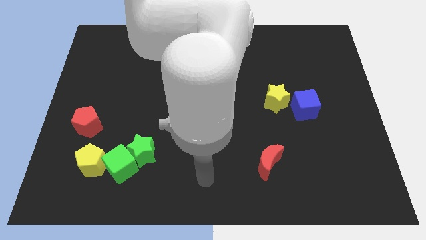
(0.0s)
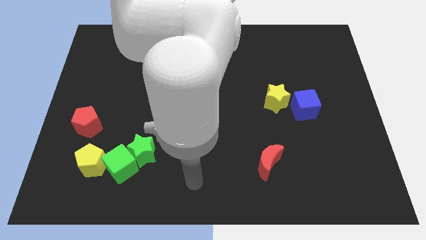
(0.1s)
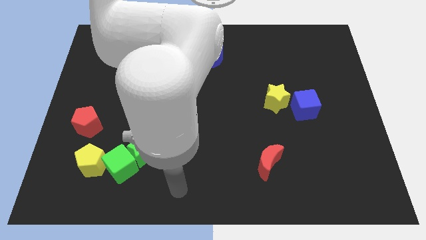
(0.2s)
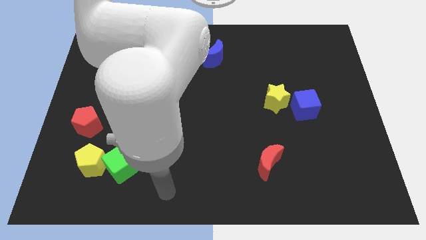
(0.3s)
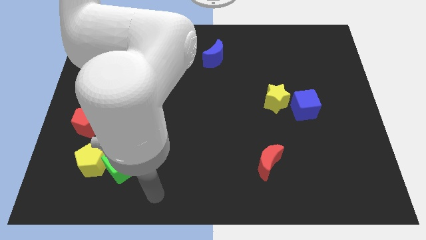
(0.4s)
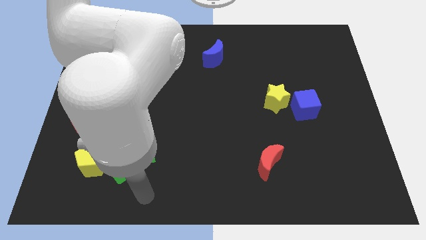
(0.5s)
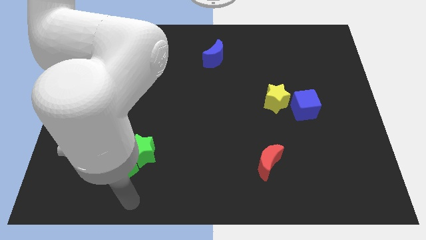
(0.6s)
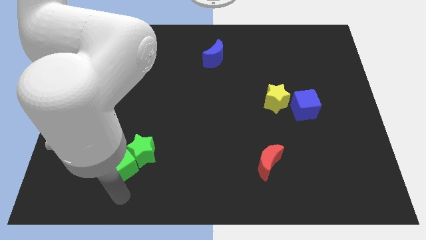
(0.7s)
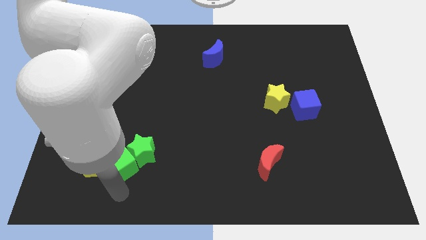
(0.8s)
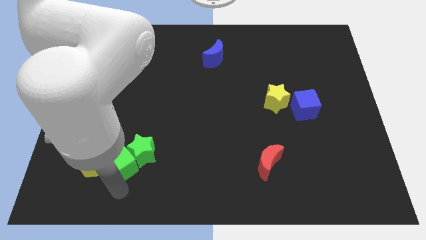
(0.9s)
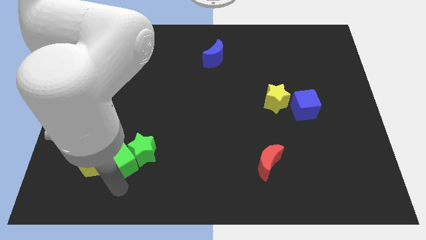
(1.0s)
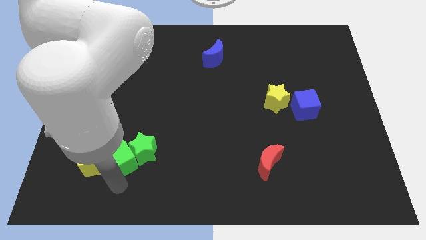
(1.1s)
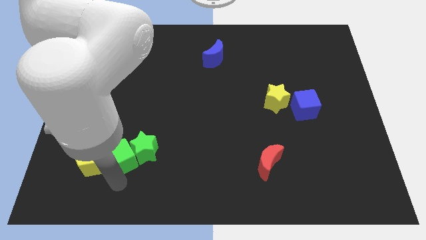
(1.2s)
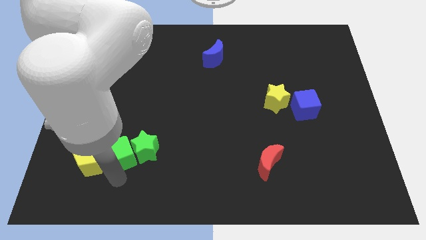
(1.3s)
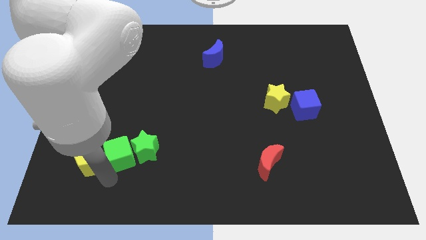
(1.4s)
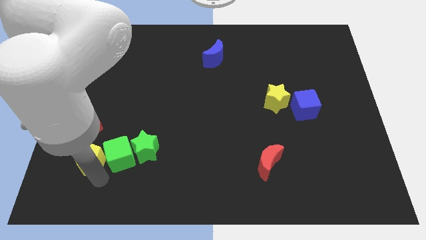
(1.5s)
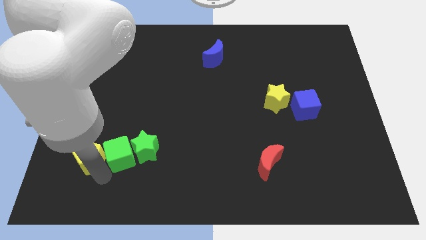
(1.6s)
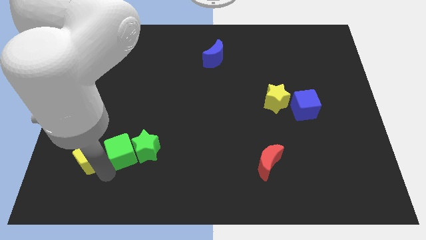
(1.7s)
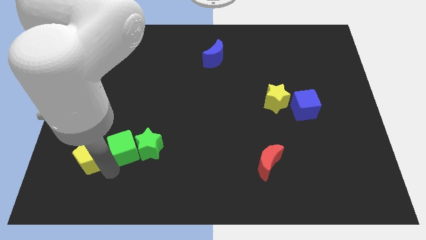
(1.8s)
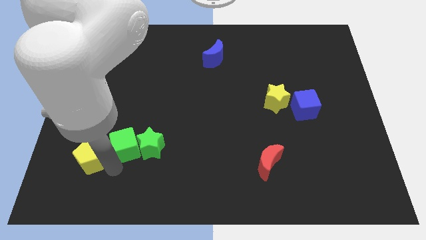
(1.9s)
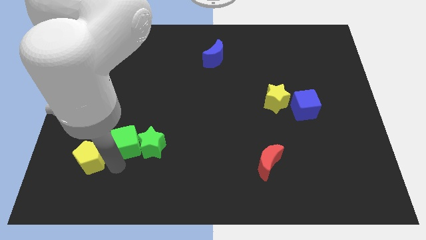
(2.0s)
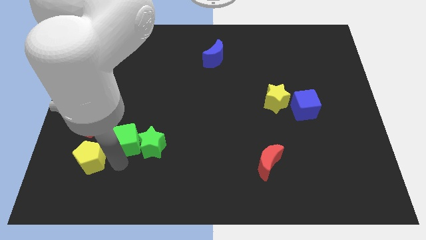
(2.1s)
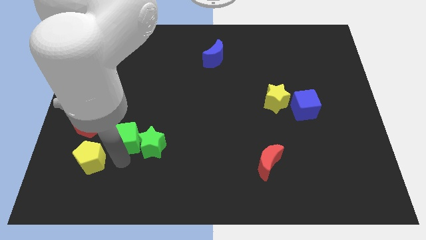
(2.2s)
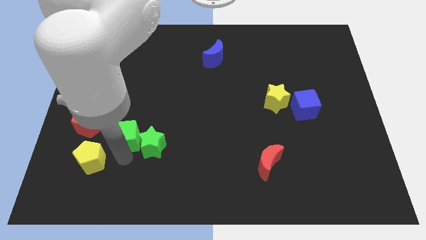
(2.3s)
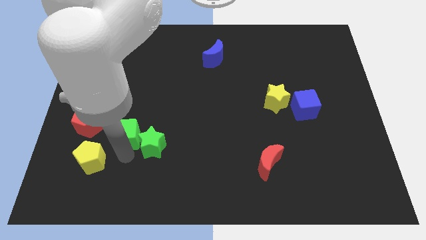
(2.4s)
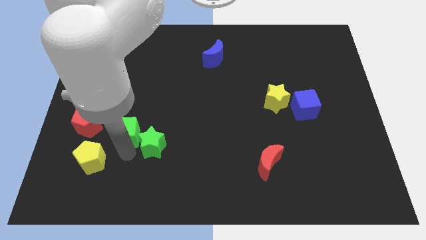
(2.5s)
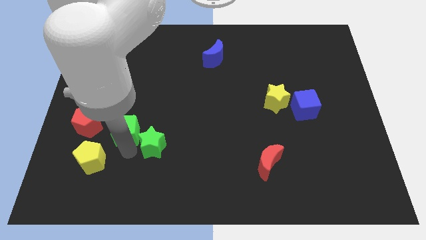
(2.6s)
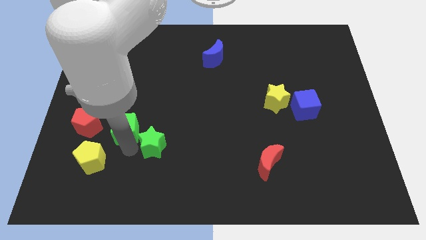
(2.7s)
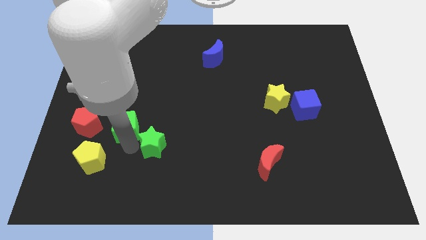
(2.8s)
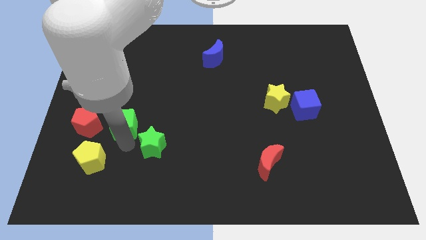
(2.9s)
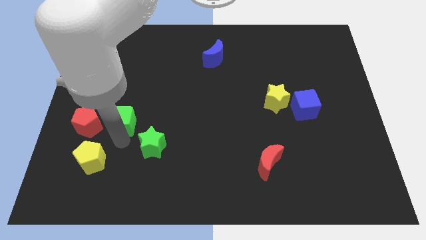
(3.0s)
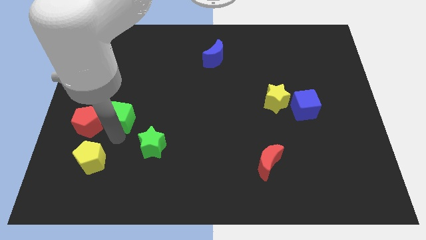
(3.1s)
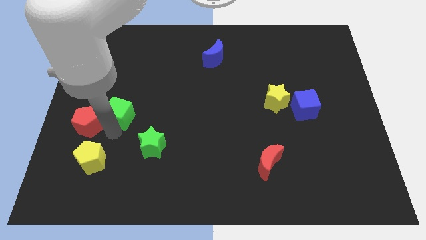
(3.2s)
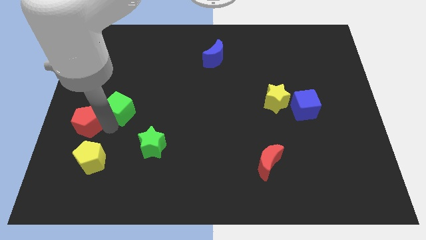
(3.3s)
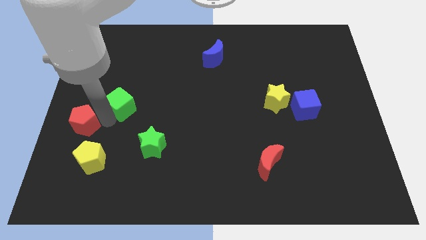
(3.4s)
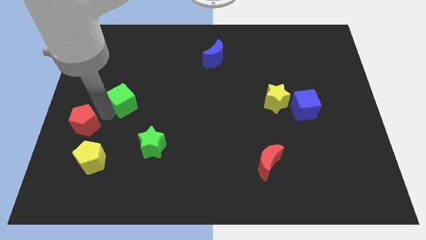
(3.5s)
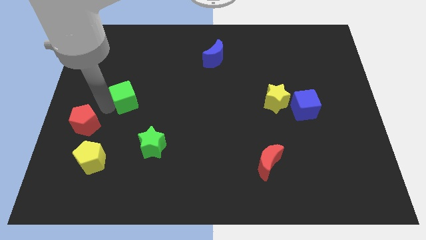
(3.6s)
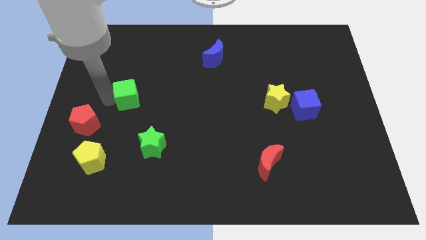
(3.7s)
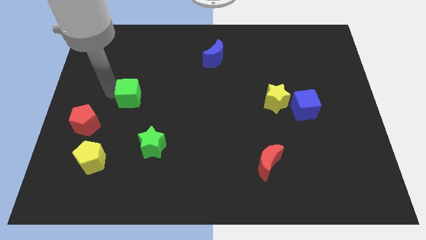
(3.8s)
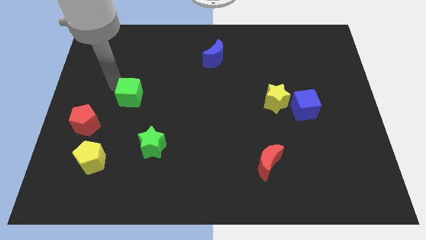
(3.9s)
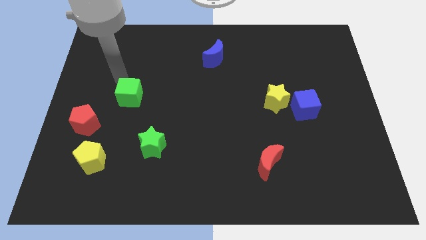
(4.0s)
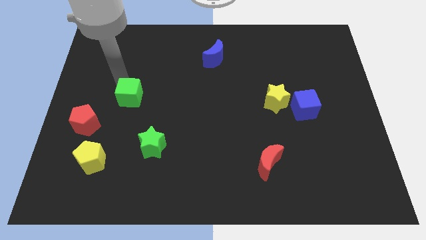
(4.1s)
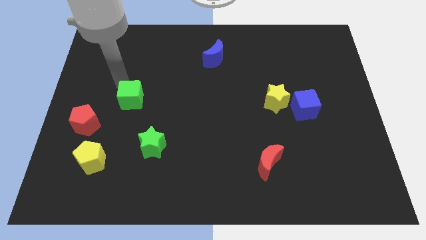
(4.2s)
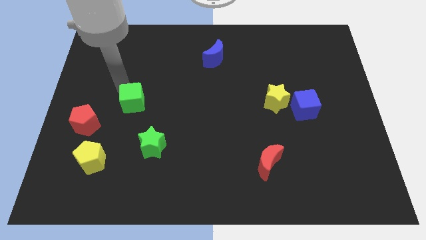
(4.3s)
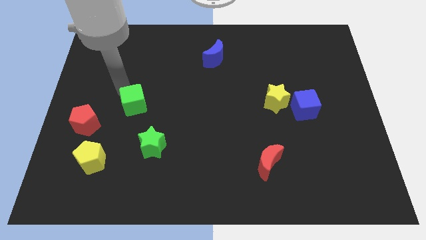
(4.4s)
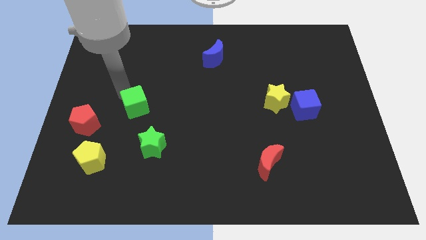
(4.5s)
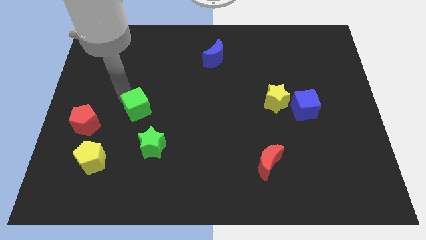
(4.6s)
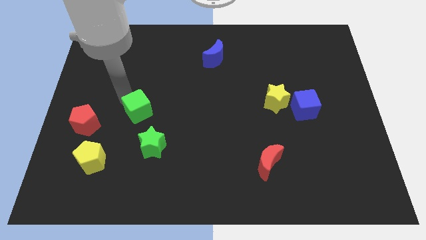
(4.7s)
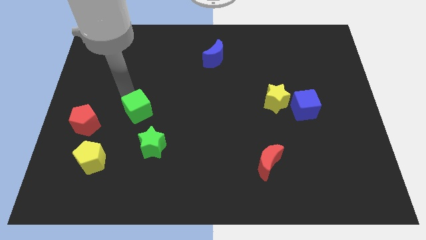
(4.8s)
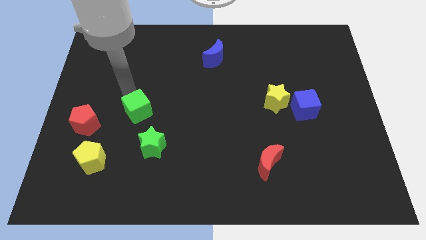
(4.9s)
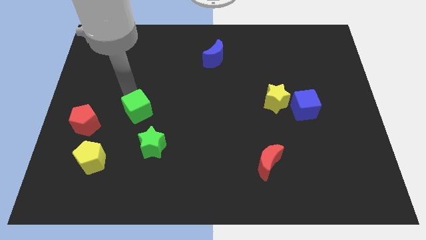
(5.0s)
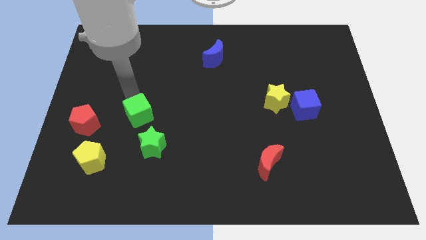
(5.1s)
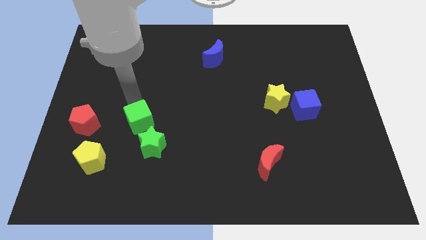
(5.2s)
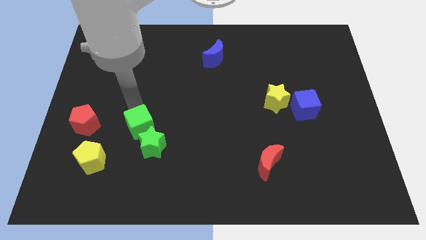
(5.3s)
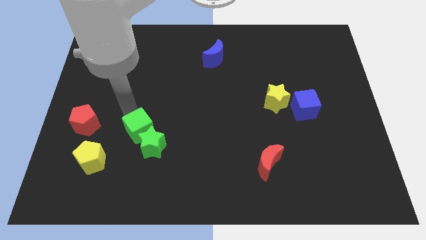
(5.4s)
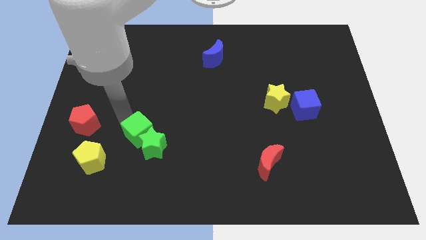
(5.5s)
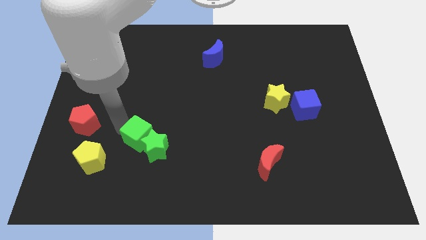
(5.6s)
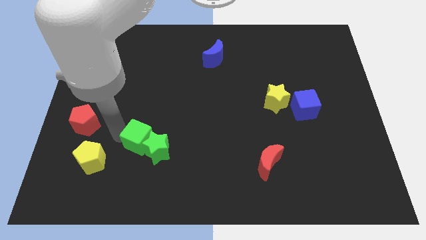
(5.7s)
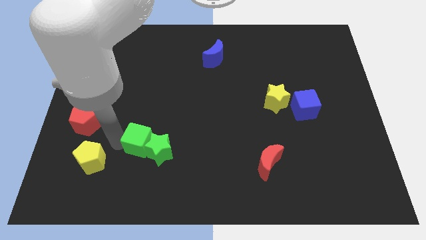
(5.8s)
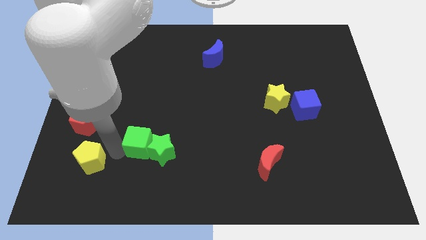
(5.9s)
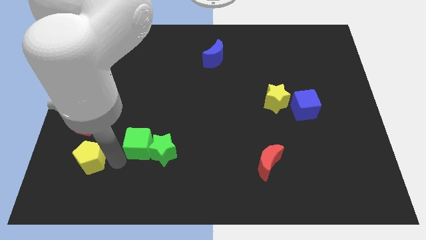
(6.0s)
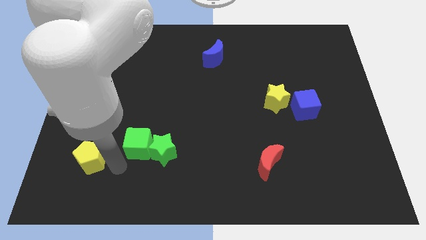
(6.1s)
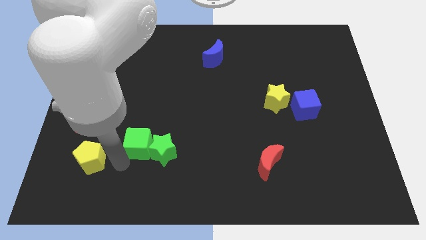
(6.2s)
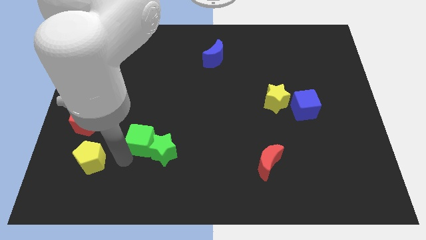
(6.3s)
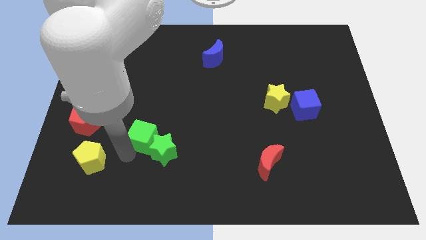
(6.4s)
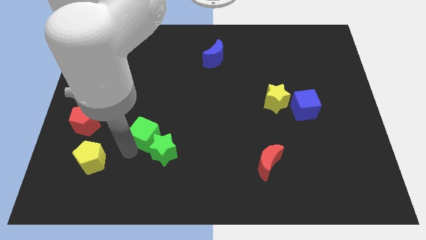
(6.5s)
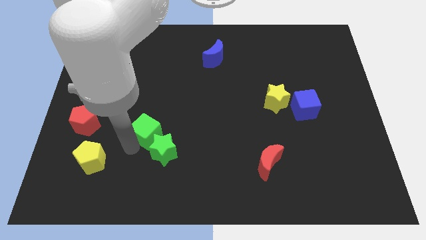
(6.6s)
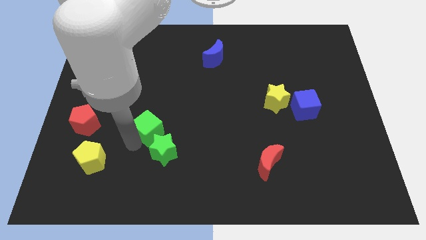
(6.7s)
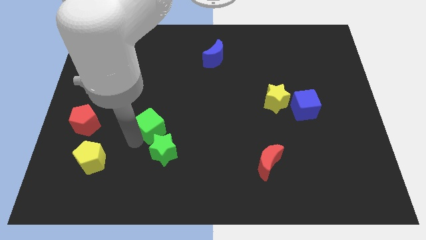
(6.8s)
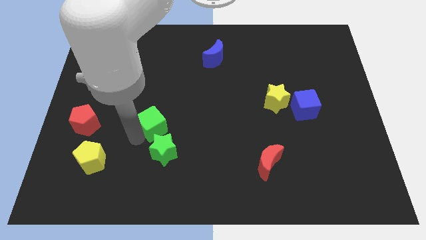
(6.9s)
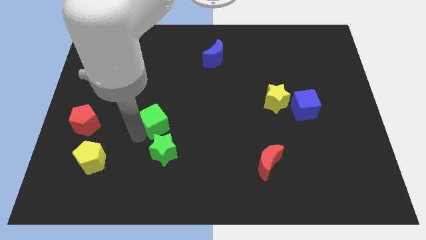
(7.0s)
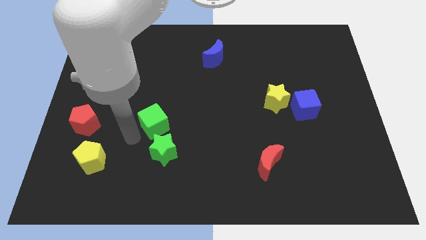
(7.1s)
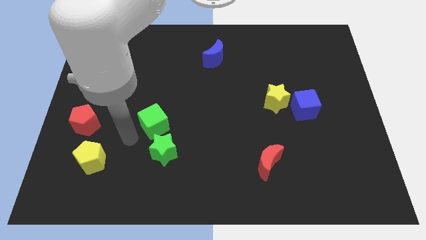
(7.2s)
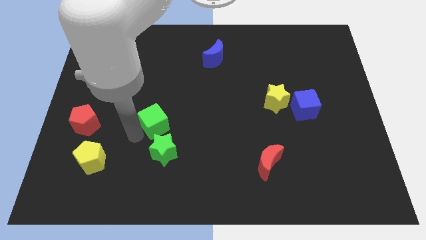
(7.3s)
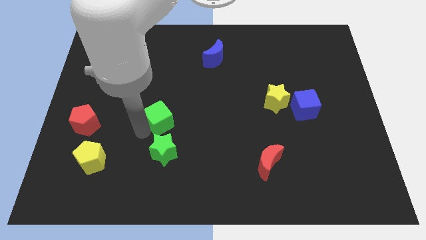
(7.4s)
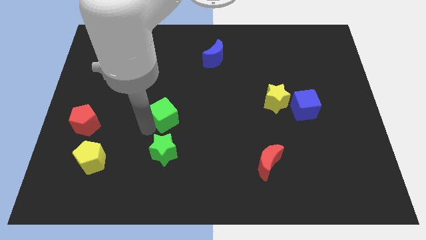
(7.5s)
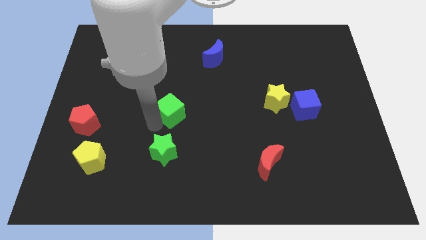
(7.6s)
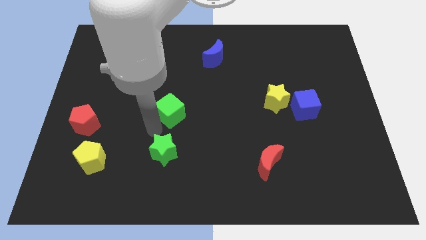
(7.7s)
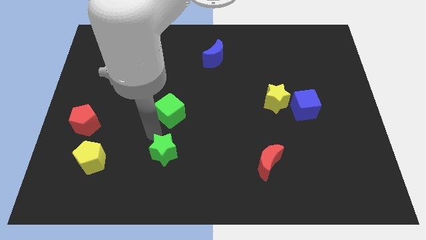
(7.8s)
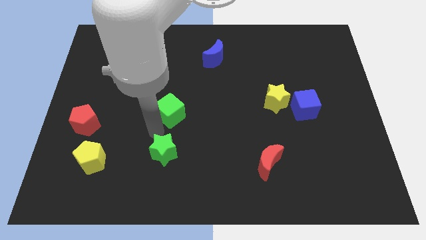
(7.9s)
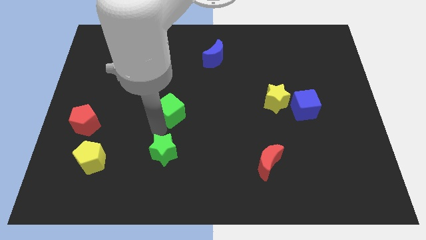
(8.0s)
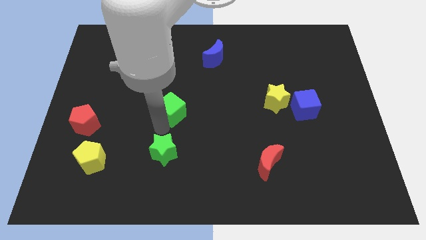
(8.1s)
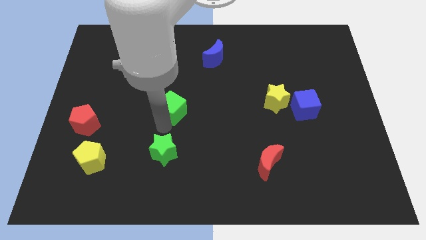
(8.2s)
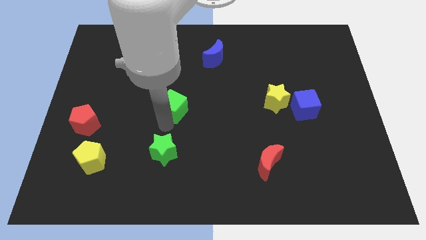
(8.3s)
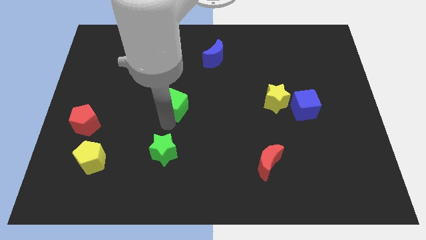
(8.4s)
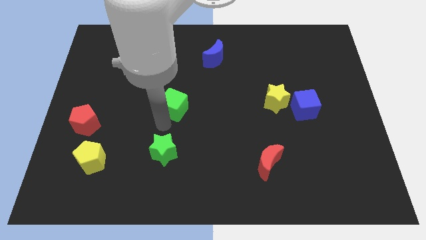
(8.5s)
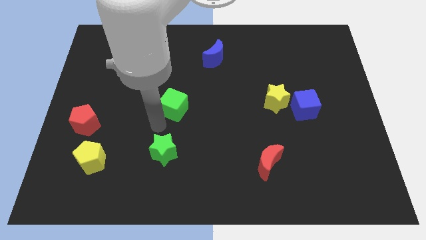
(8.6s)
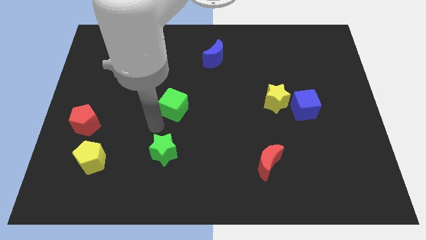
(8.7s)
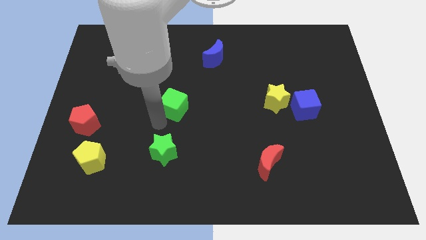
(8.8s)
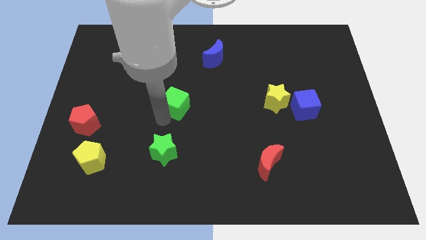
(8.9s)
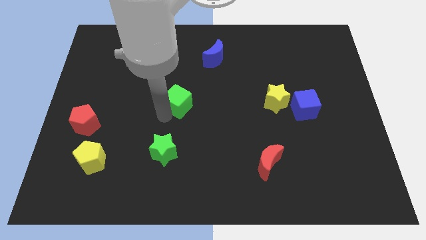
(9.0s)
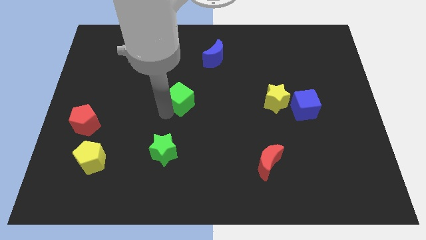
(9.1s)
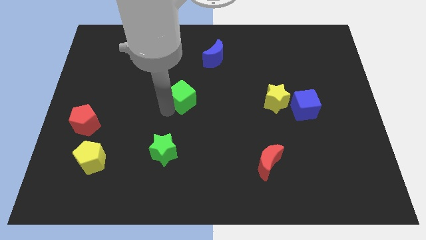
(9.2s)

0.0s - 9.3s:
slide the green cube diagonally upwards and right
